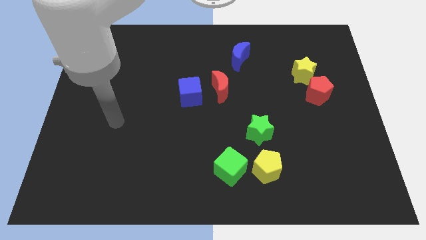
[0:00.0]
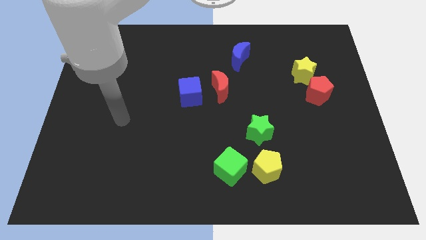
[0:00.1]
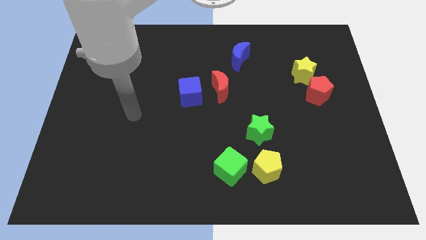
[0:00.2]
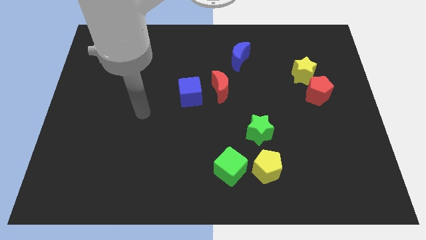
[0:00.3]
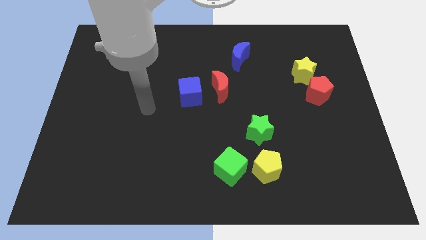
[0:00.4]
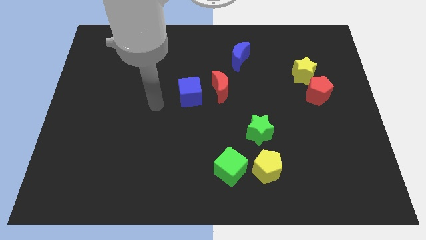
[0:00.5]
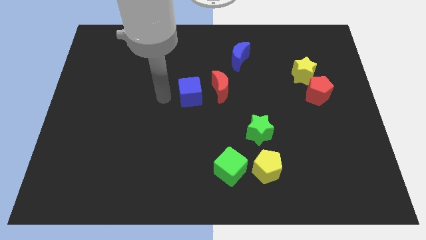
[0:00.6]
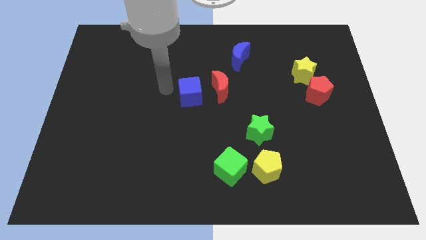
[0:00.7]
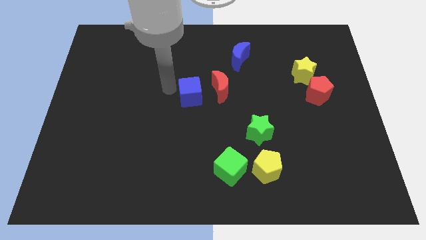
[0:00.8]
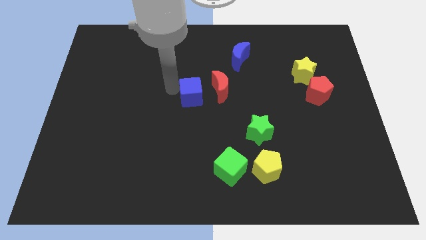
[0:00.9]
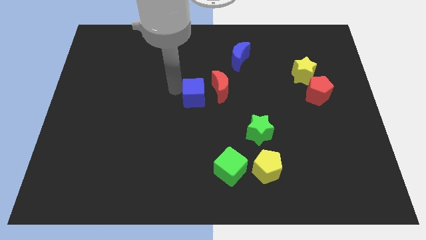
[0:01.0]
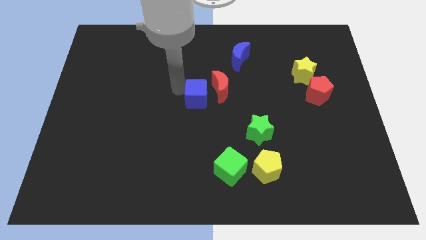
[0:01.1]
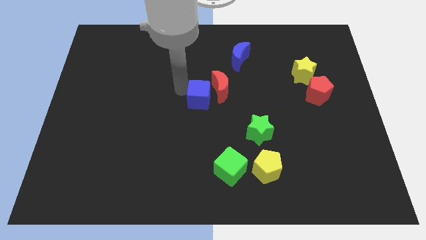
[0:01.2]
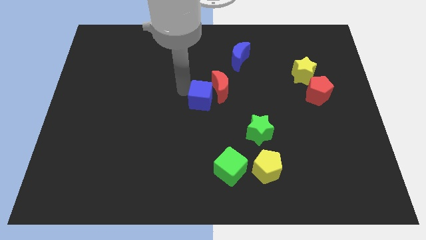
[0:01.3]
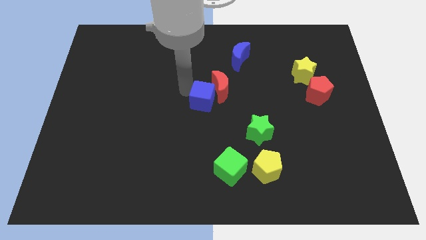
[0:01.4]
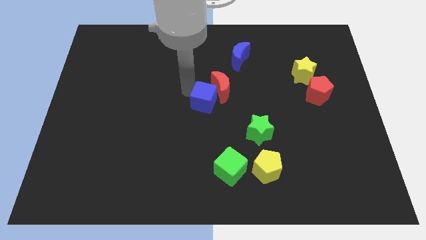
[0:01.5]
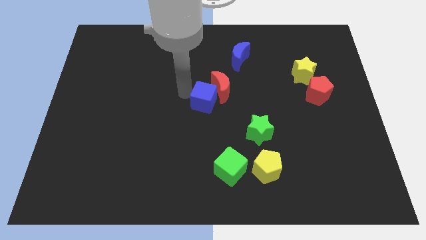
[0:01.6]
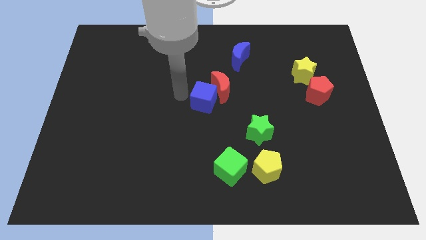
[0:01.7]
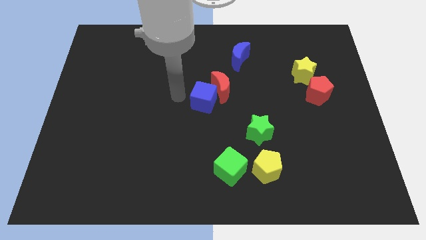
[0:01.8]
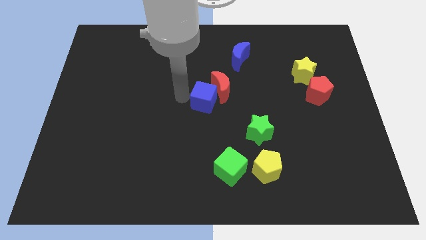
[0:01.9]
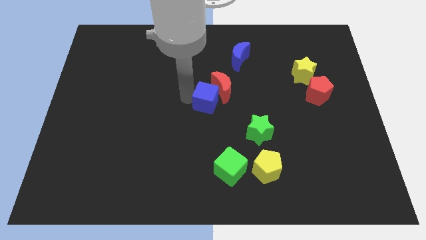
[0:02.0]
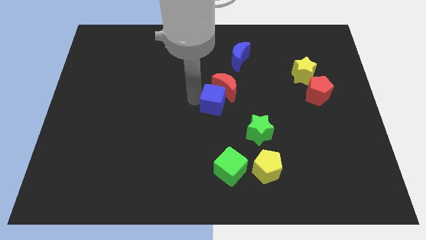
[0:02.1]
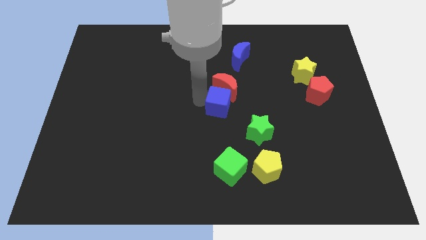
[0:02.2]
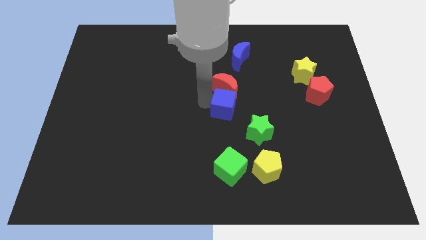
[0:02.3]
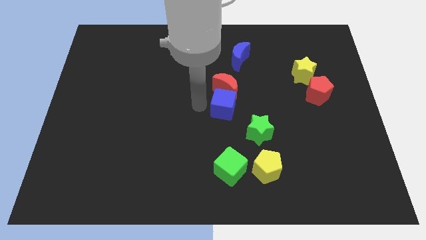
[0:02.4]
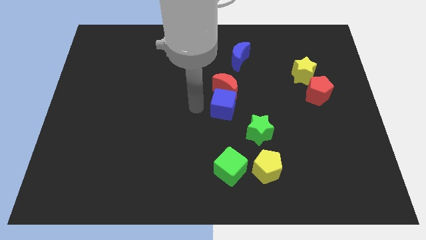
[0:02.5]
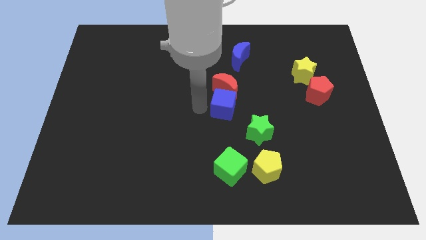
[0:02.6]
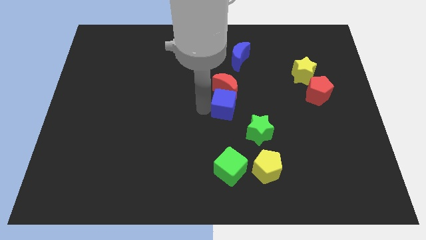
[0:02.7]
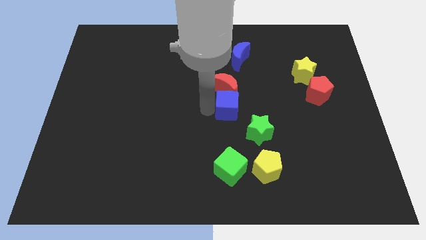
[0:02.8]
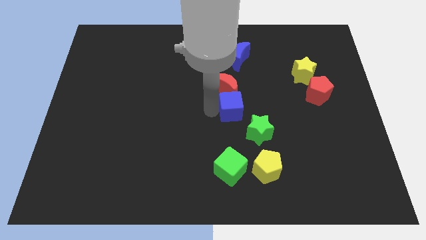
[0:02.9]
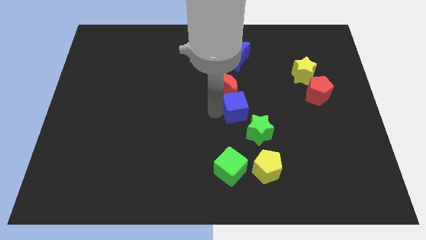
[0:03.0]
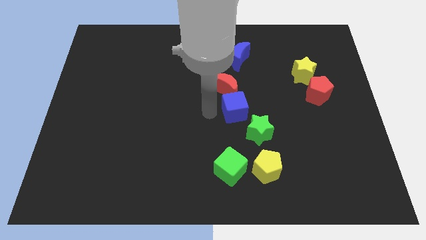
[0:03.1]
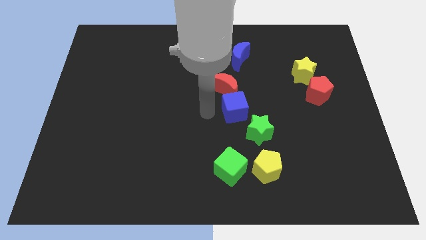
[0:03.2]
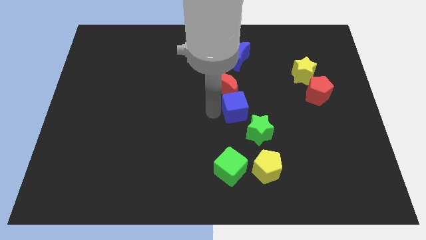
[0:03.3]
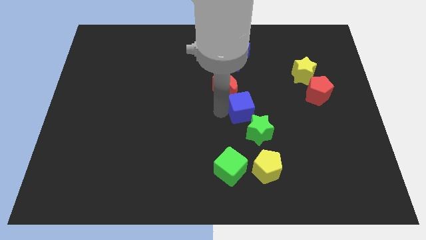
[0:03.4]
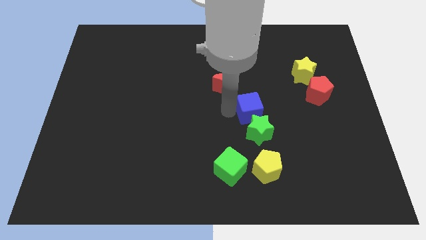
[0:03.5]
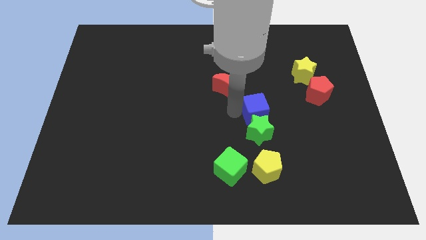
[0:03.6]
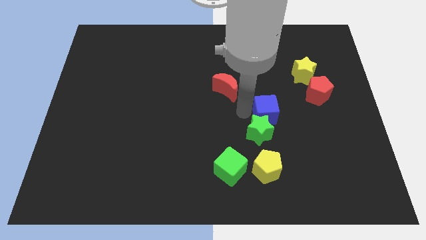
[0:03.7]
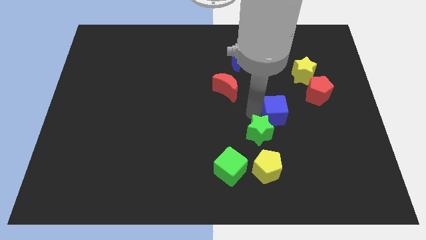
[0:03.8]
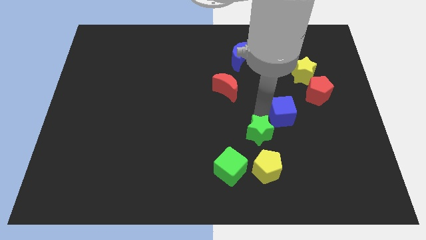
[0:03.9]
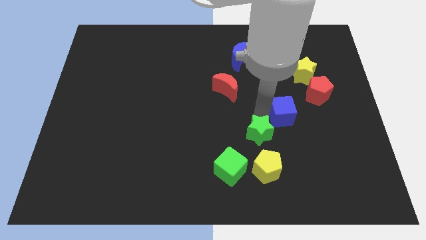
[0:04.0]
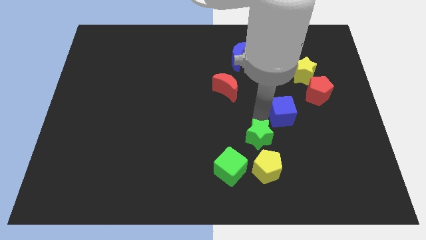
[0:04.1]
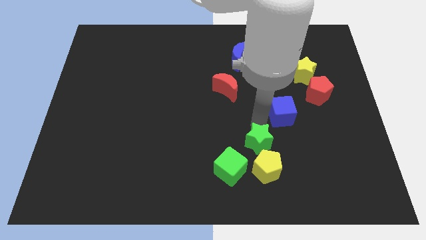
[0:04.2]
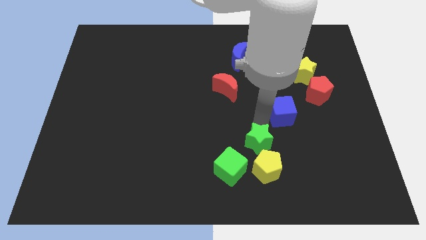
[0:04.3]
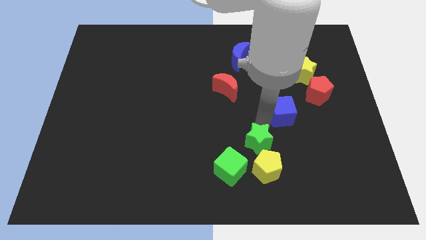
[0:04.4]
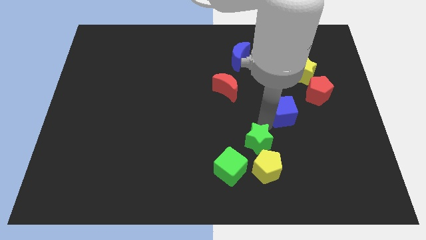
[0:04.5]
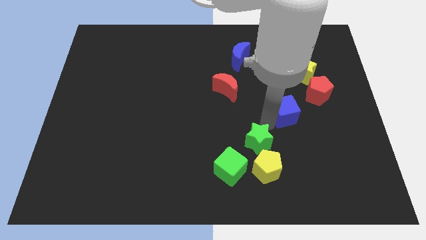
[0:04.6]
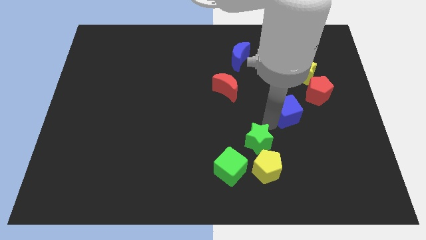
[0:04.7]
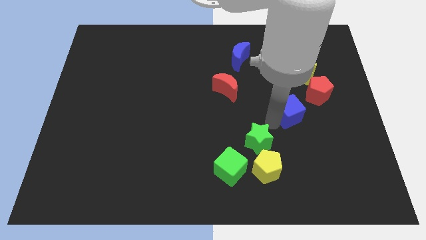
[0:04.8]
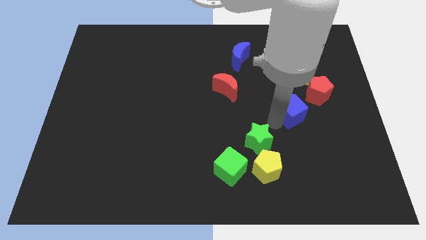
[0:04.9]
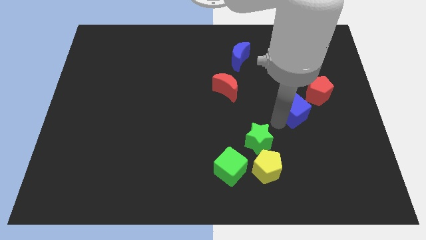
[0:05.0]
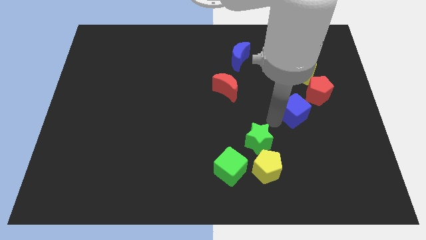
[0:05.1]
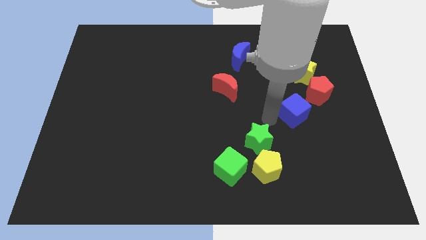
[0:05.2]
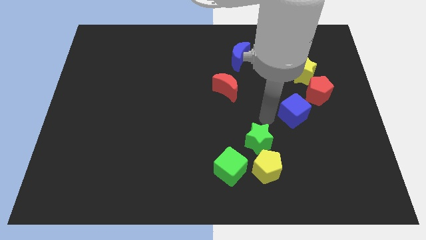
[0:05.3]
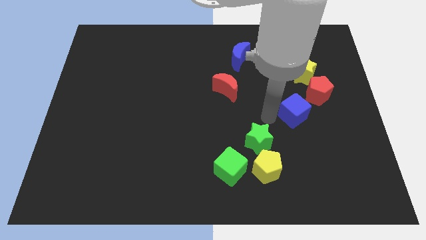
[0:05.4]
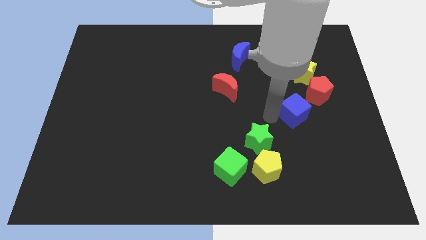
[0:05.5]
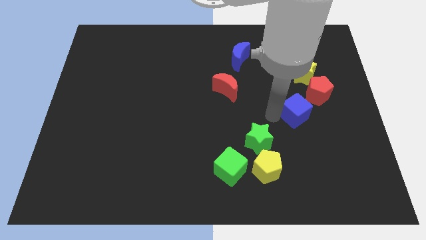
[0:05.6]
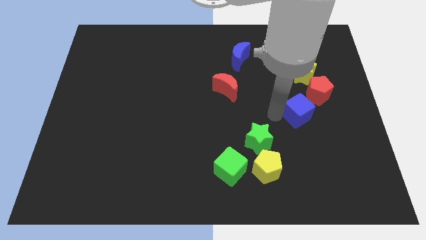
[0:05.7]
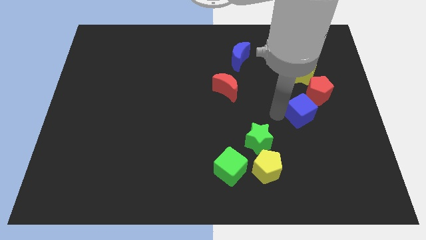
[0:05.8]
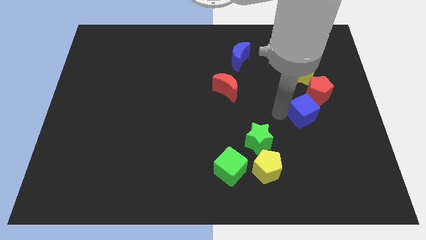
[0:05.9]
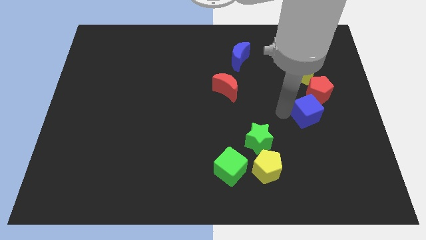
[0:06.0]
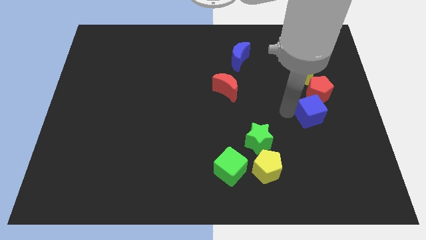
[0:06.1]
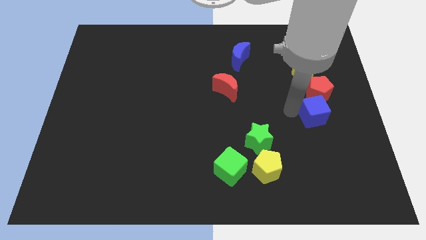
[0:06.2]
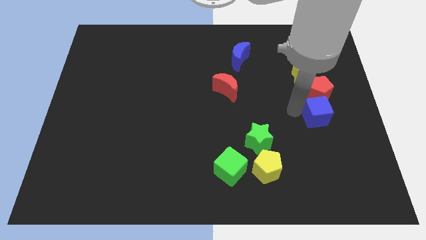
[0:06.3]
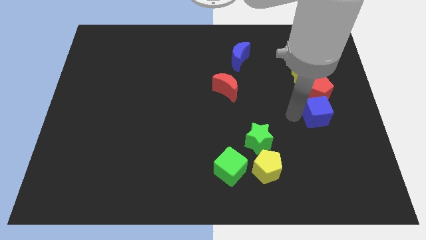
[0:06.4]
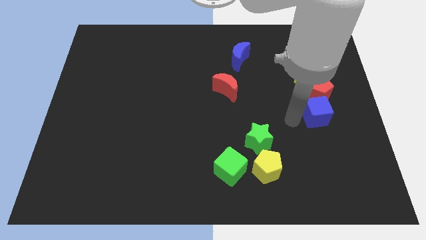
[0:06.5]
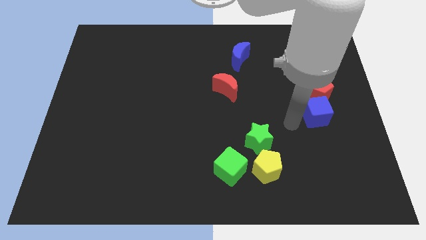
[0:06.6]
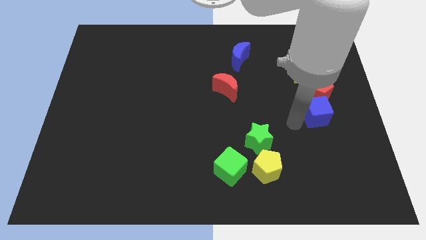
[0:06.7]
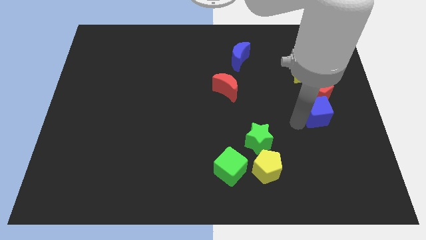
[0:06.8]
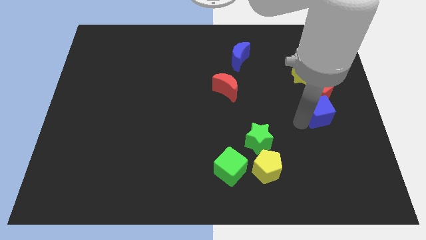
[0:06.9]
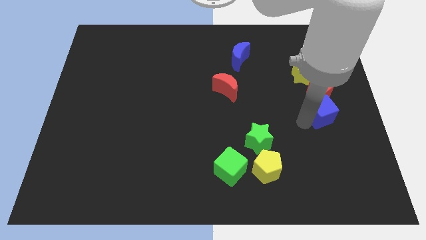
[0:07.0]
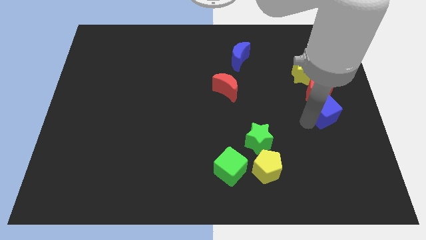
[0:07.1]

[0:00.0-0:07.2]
move the blue cube to the right side
